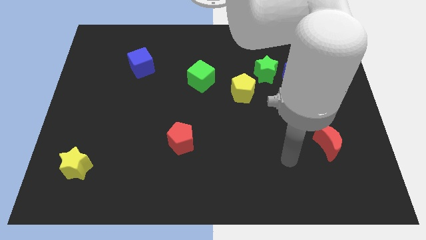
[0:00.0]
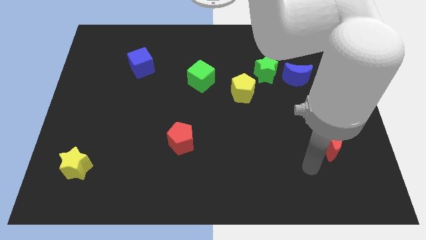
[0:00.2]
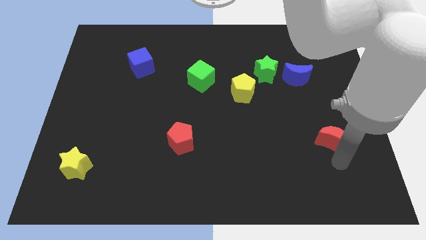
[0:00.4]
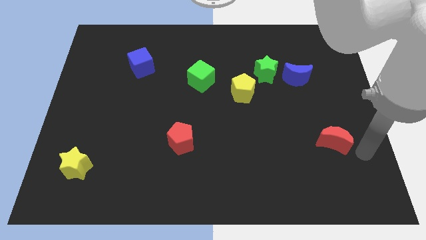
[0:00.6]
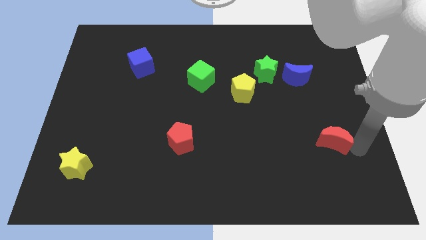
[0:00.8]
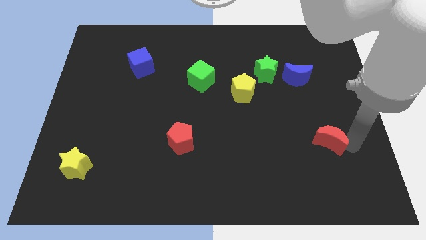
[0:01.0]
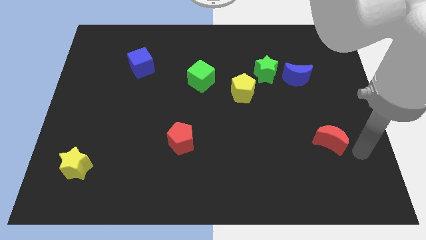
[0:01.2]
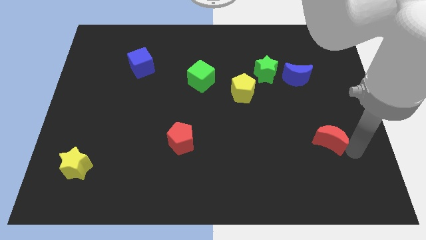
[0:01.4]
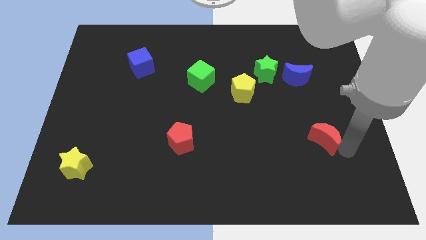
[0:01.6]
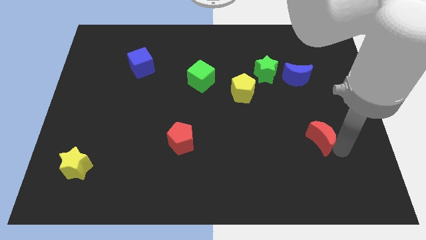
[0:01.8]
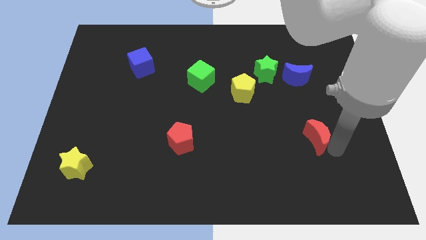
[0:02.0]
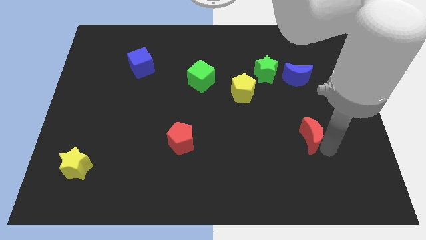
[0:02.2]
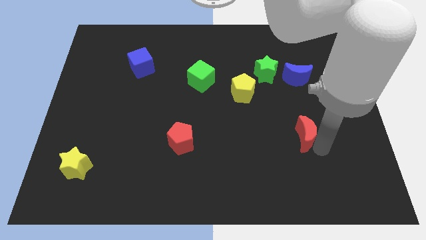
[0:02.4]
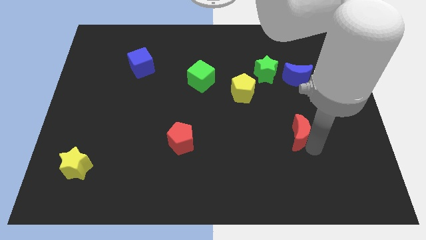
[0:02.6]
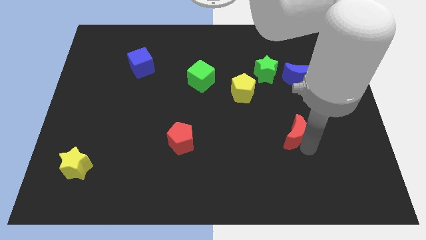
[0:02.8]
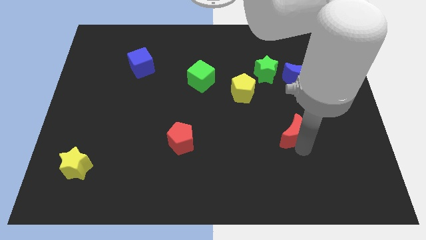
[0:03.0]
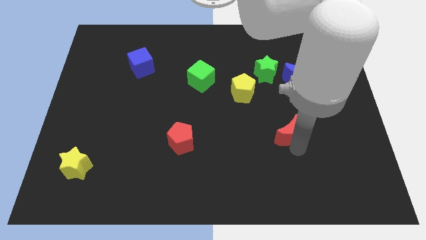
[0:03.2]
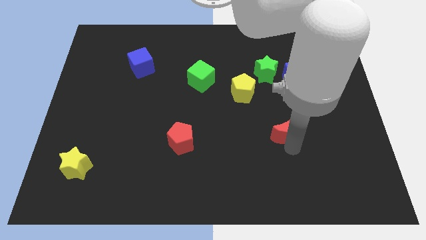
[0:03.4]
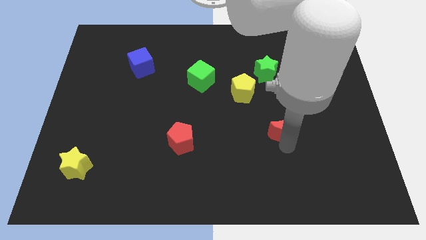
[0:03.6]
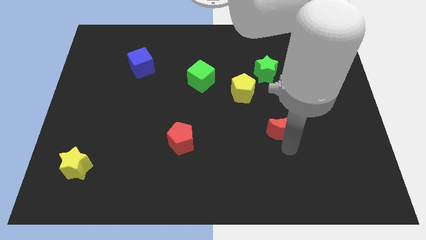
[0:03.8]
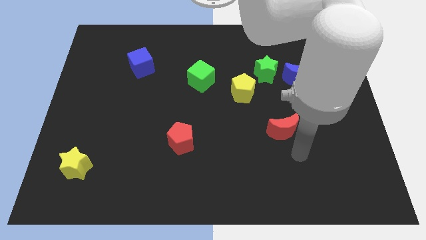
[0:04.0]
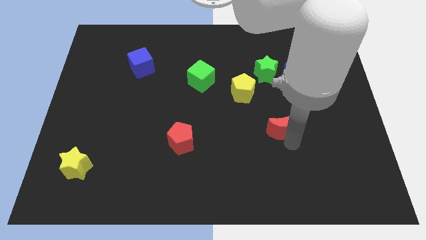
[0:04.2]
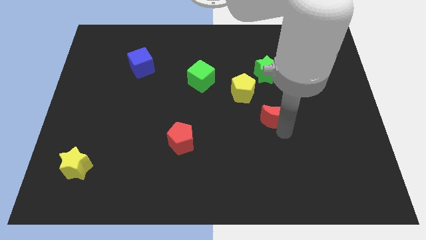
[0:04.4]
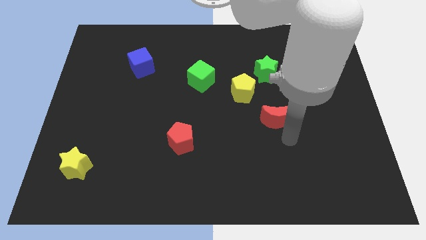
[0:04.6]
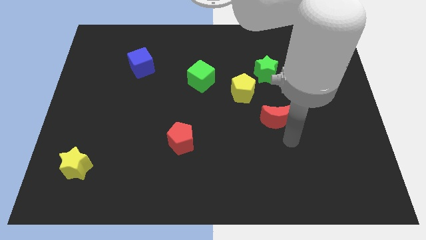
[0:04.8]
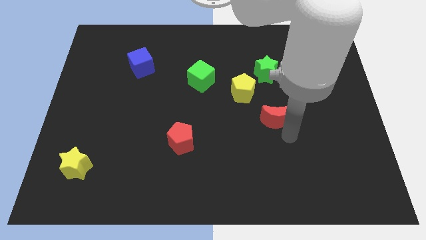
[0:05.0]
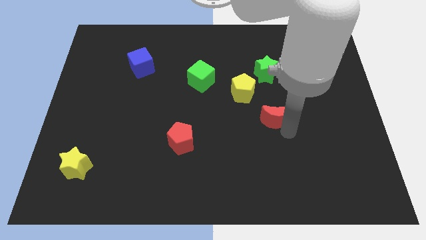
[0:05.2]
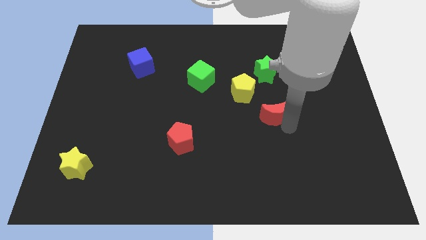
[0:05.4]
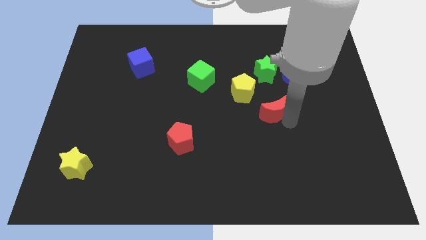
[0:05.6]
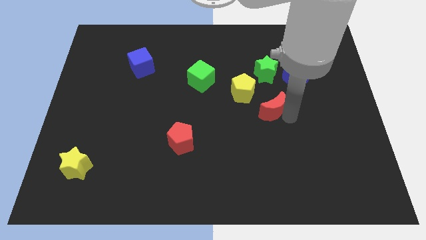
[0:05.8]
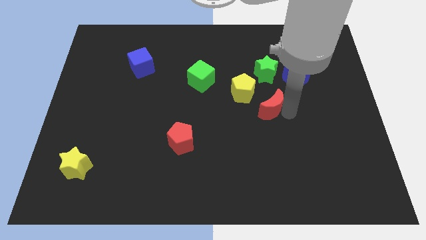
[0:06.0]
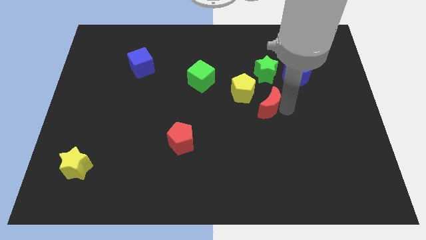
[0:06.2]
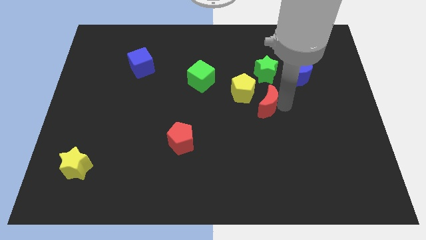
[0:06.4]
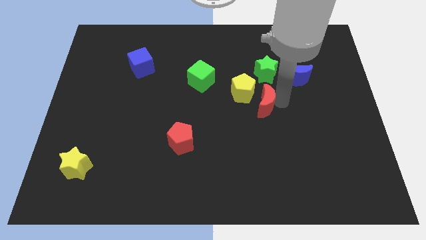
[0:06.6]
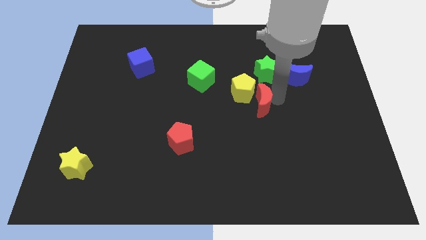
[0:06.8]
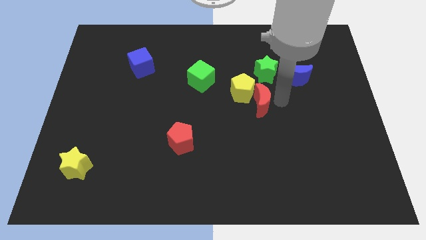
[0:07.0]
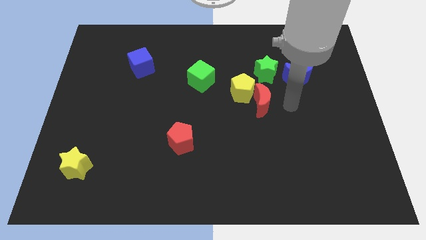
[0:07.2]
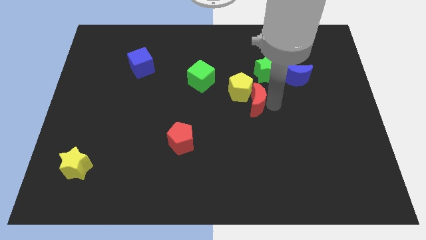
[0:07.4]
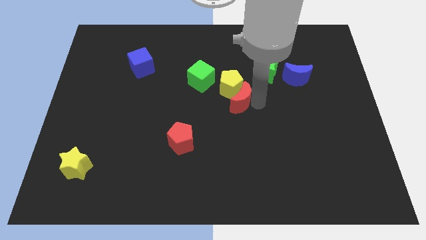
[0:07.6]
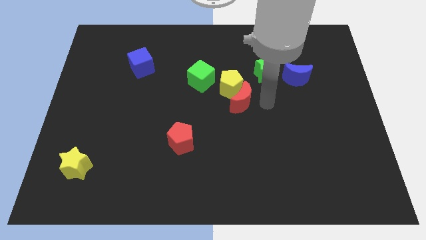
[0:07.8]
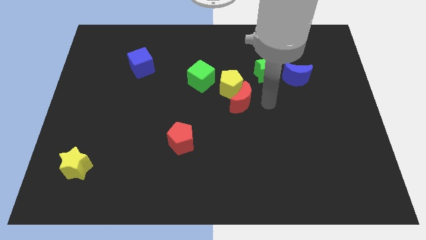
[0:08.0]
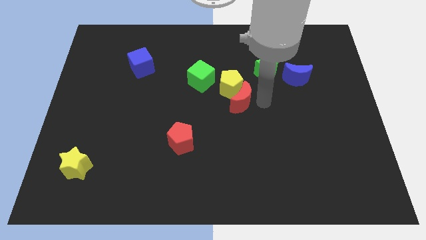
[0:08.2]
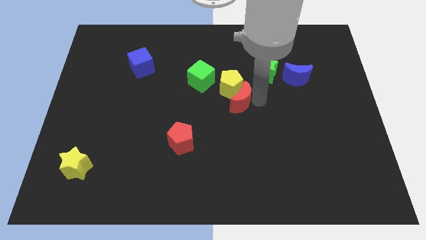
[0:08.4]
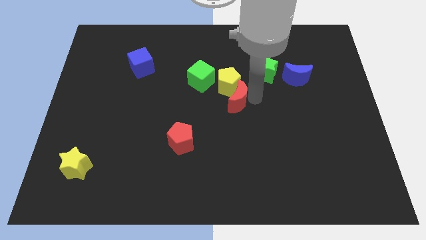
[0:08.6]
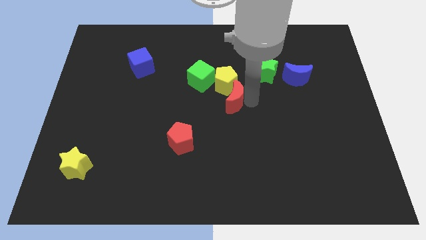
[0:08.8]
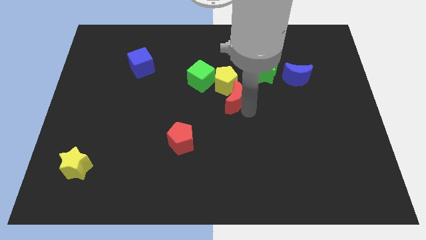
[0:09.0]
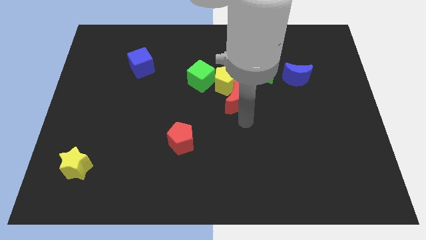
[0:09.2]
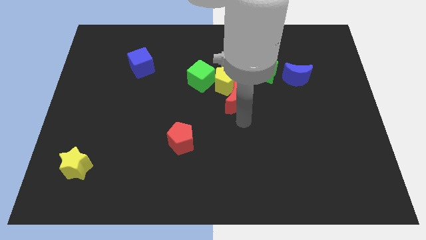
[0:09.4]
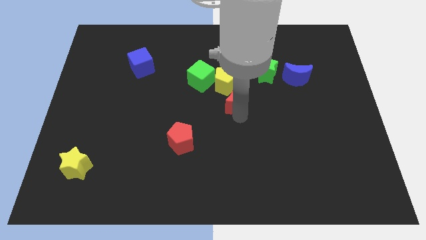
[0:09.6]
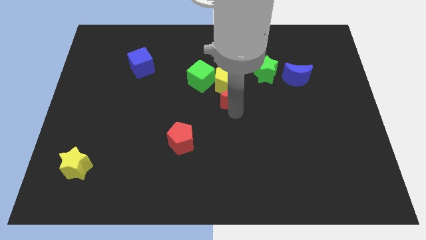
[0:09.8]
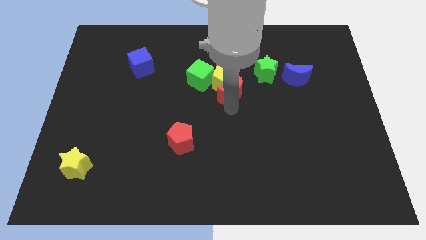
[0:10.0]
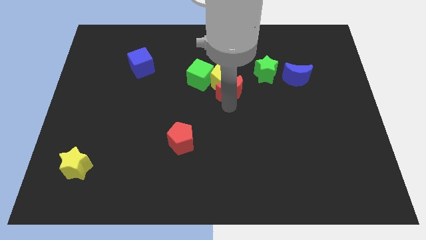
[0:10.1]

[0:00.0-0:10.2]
put the red moon right of the green cube

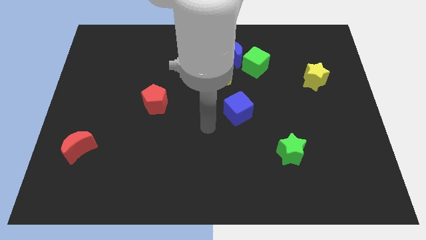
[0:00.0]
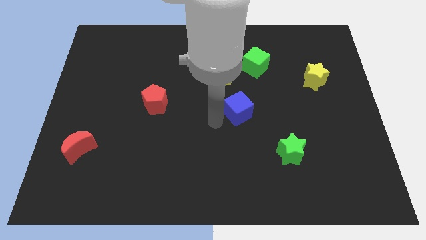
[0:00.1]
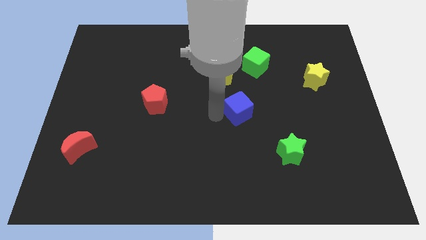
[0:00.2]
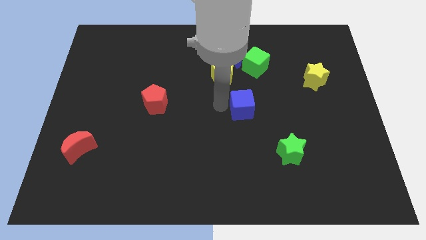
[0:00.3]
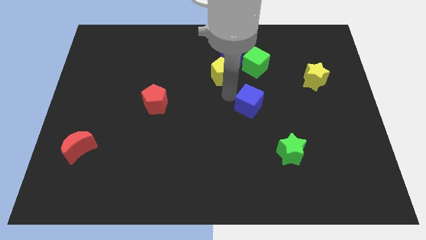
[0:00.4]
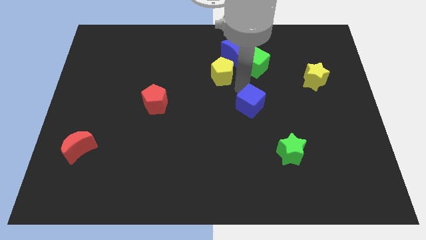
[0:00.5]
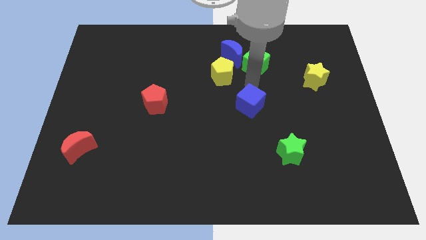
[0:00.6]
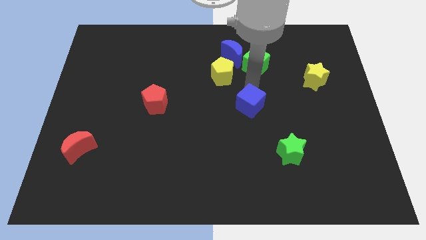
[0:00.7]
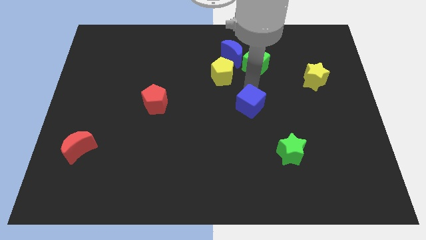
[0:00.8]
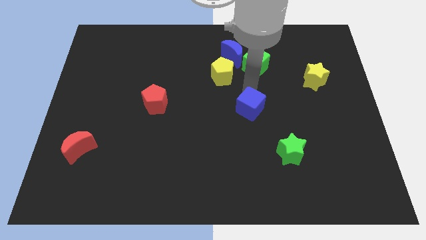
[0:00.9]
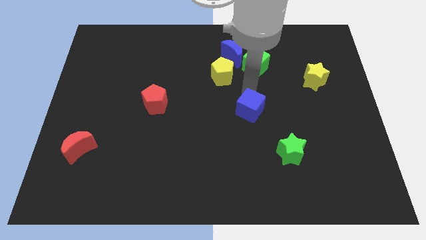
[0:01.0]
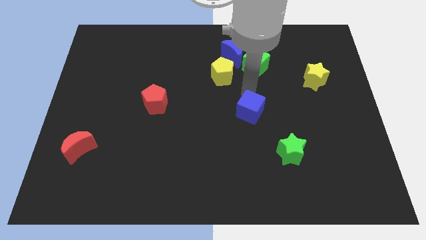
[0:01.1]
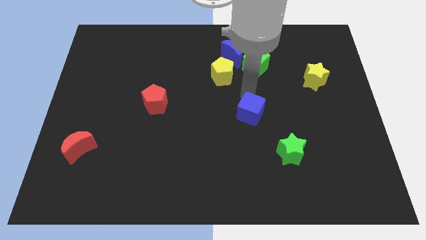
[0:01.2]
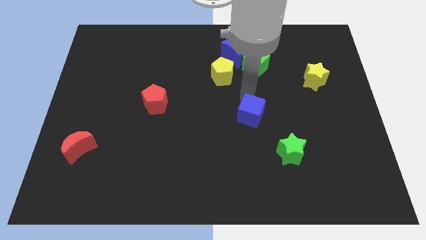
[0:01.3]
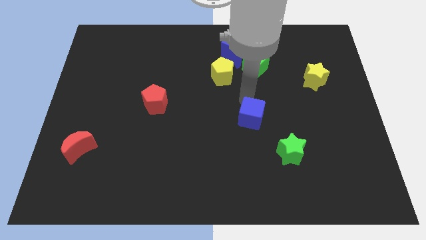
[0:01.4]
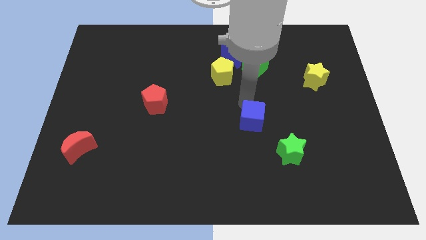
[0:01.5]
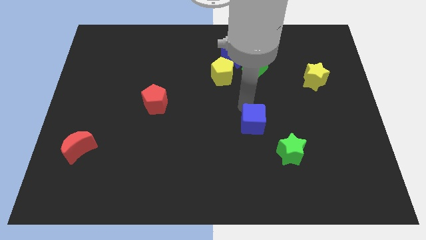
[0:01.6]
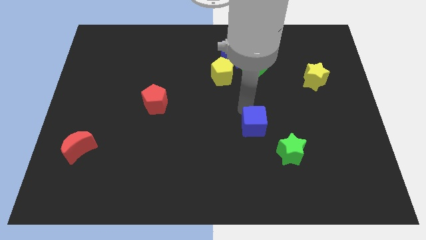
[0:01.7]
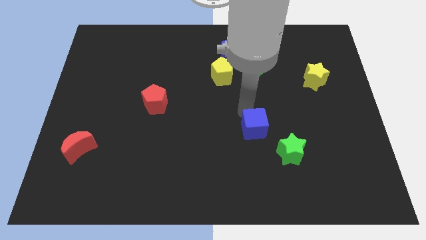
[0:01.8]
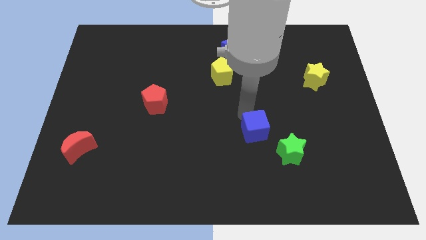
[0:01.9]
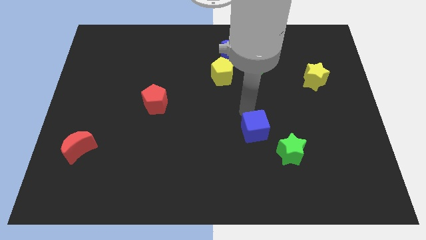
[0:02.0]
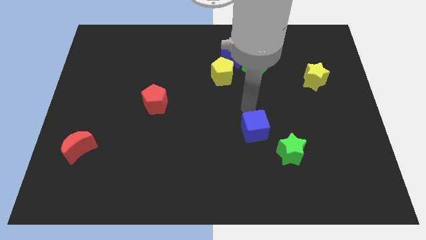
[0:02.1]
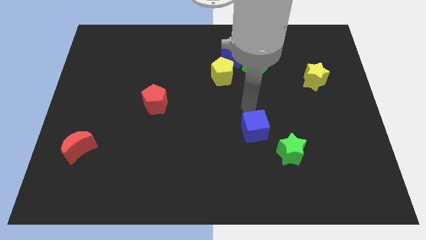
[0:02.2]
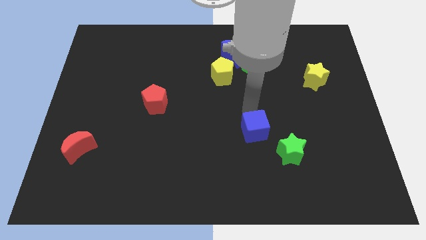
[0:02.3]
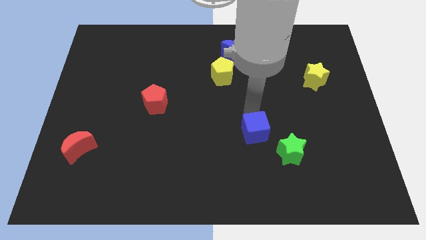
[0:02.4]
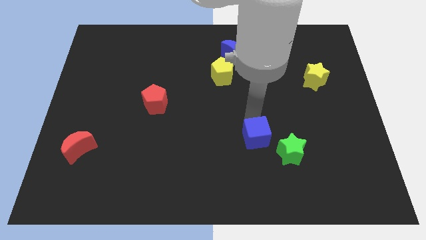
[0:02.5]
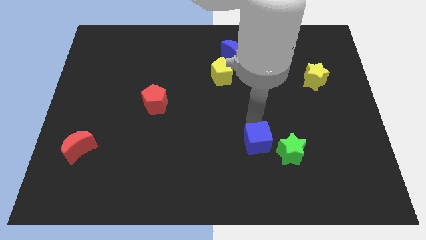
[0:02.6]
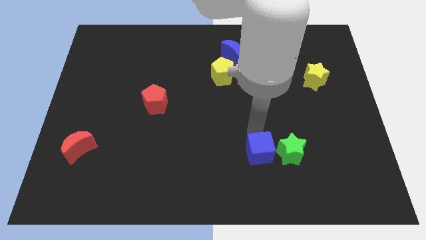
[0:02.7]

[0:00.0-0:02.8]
slide the blue cube to the bottom left of the green star
